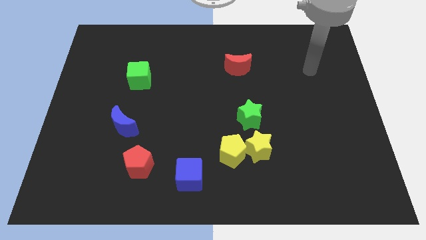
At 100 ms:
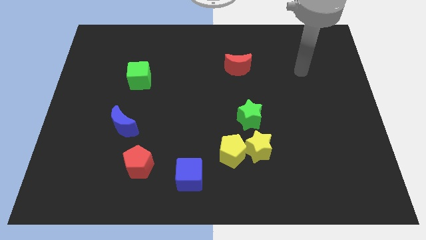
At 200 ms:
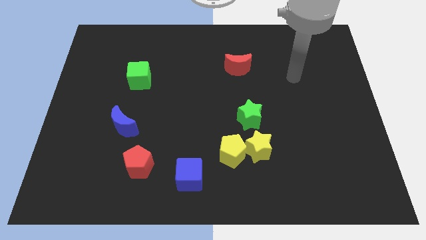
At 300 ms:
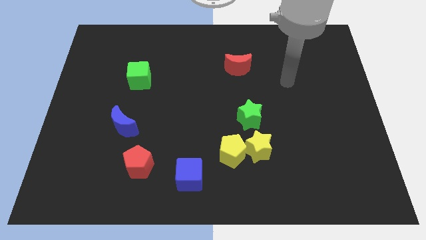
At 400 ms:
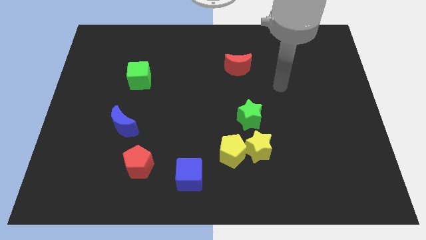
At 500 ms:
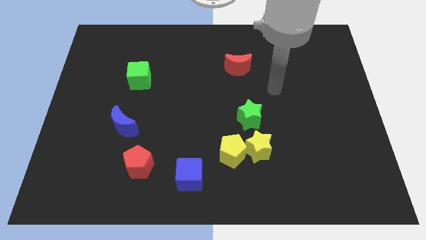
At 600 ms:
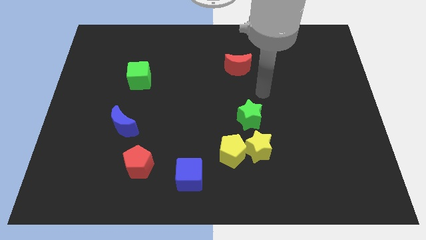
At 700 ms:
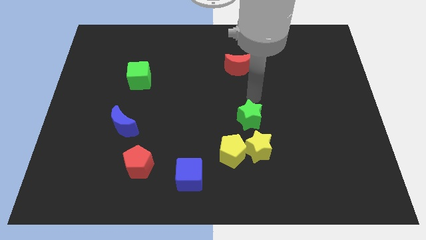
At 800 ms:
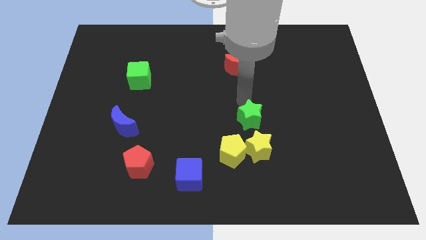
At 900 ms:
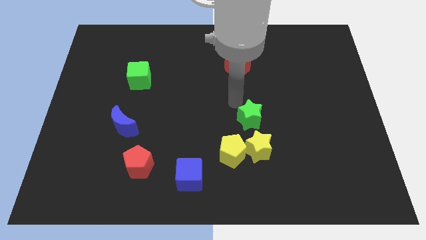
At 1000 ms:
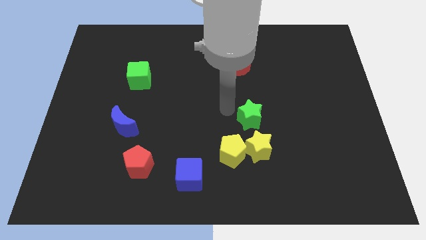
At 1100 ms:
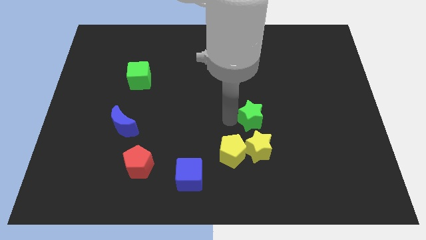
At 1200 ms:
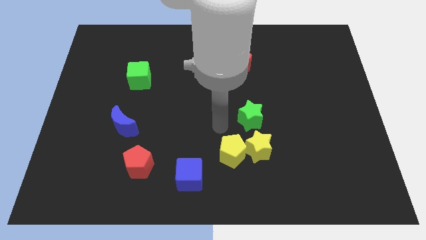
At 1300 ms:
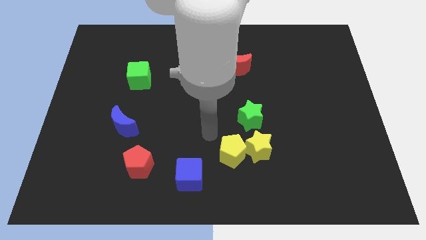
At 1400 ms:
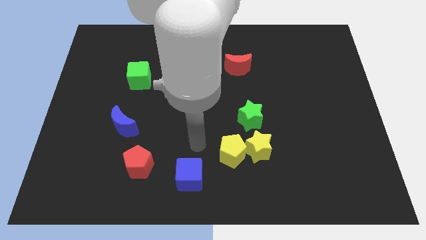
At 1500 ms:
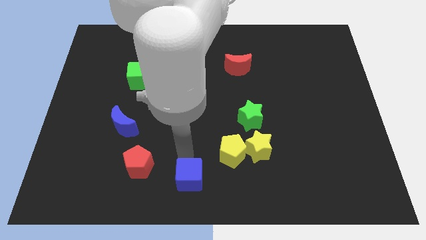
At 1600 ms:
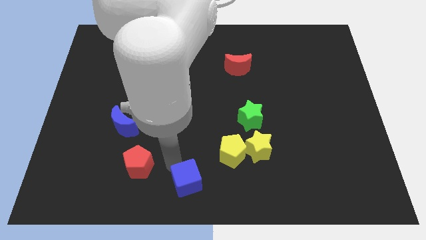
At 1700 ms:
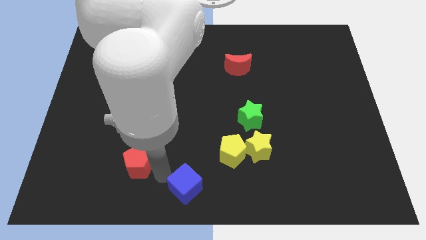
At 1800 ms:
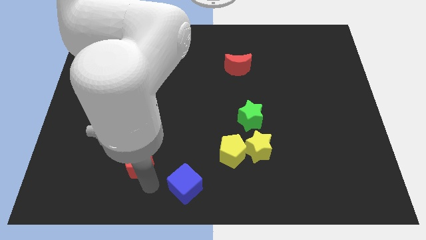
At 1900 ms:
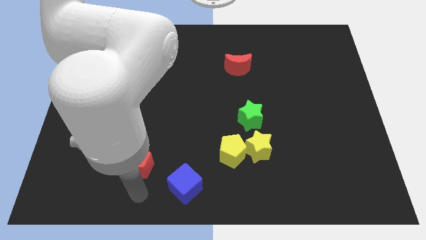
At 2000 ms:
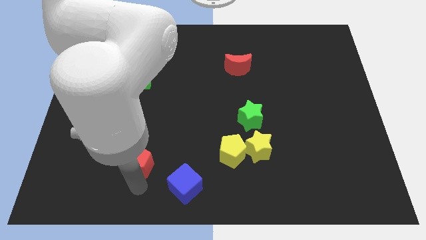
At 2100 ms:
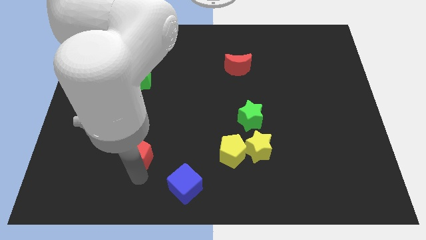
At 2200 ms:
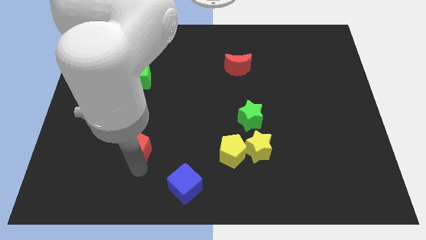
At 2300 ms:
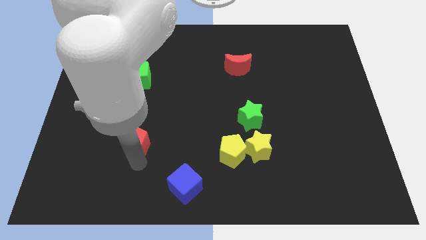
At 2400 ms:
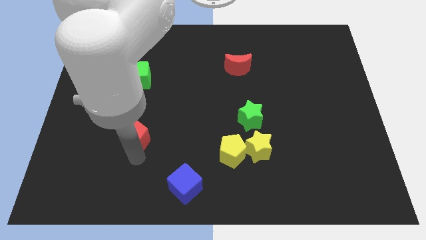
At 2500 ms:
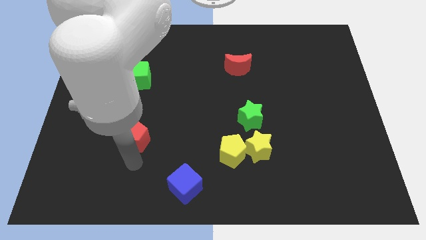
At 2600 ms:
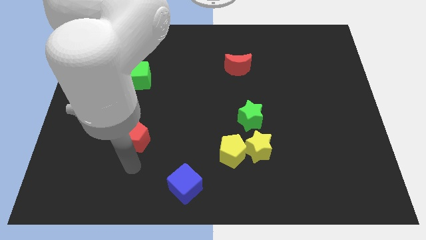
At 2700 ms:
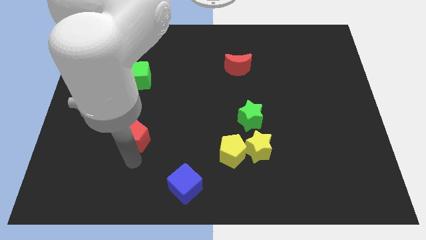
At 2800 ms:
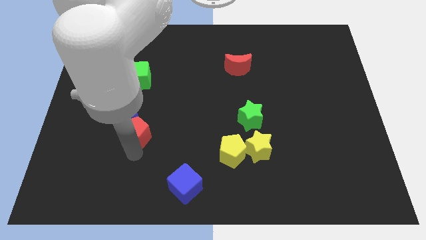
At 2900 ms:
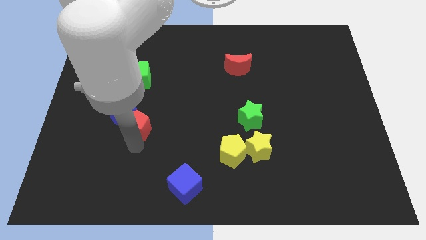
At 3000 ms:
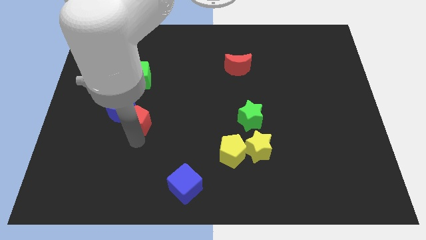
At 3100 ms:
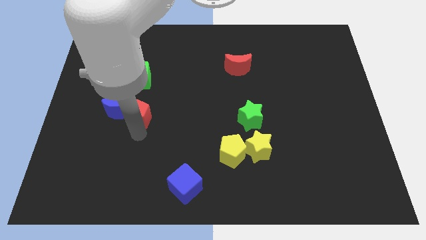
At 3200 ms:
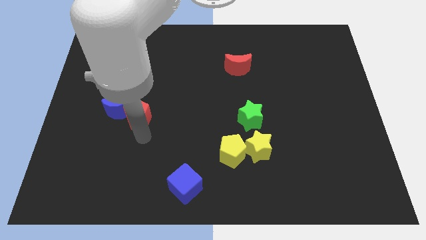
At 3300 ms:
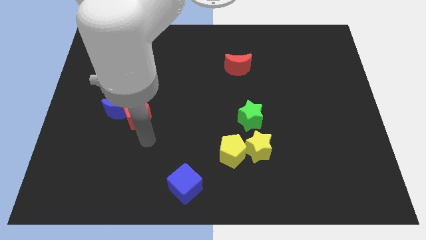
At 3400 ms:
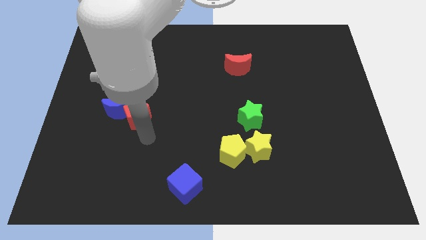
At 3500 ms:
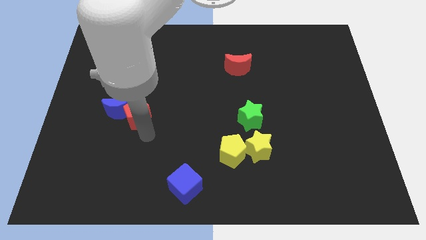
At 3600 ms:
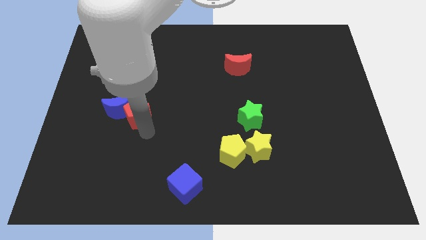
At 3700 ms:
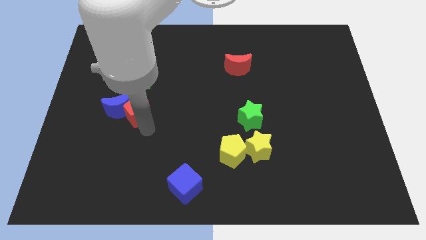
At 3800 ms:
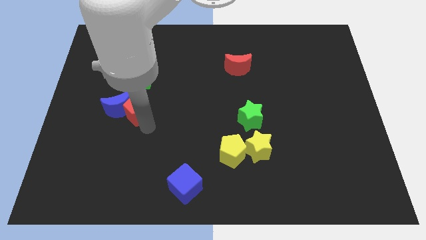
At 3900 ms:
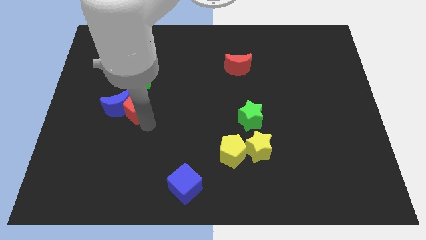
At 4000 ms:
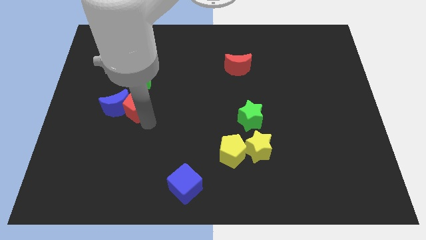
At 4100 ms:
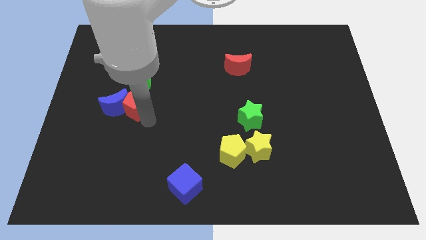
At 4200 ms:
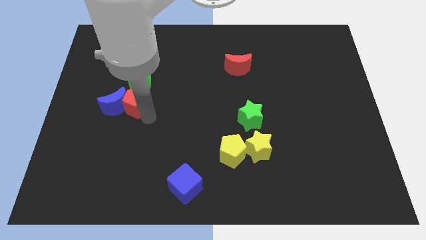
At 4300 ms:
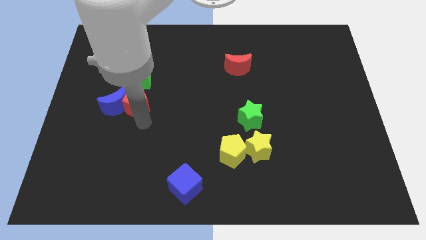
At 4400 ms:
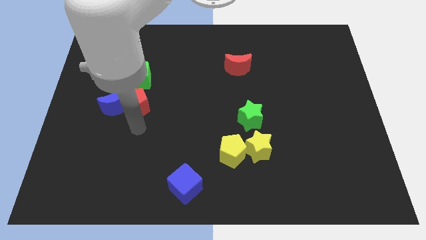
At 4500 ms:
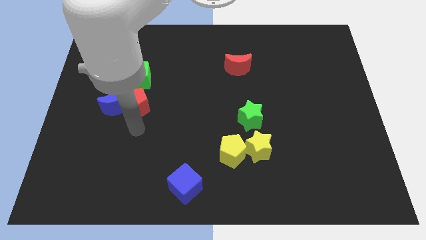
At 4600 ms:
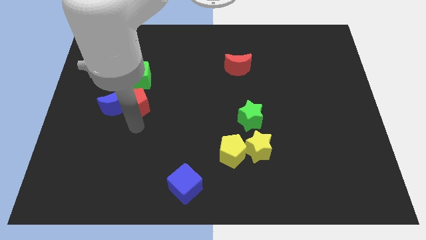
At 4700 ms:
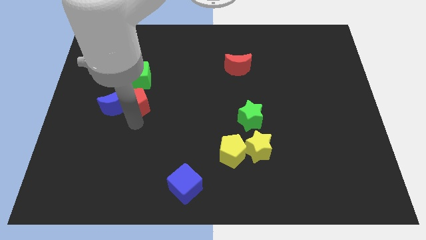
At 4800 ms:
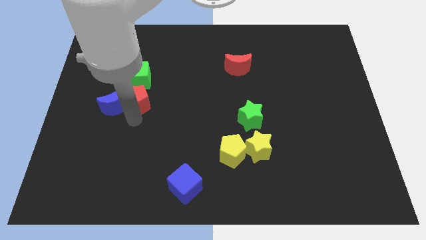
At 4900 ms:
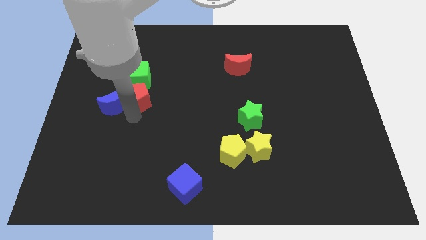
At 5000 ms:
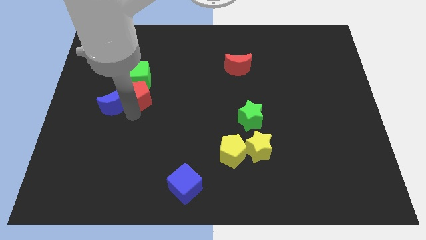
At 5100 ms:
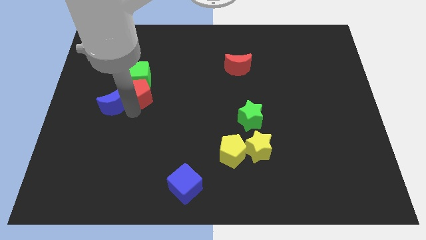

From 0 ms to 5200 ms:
slide the red pentagon to the green cube

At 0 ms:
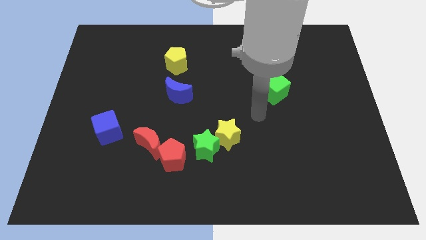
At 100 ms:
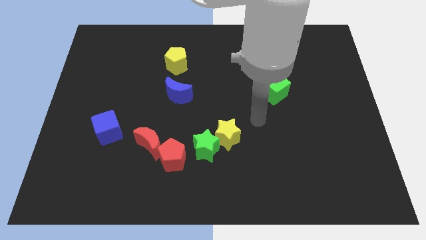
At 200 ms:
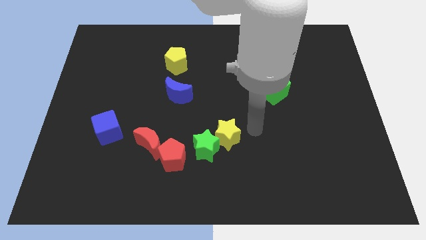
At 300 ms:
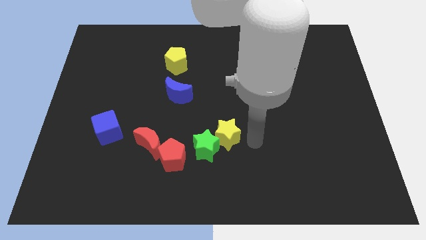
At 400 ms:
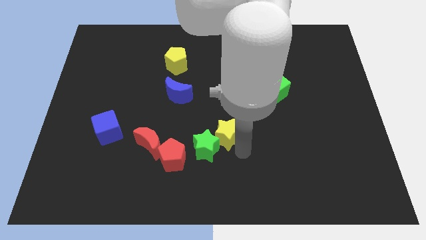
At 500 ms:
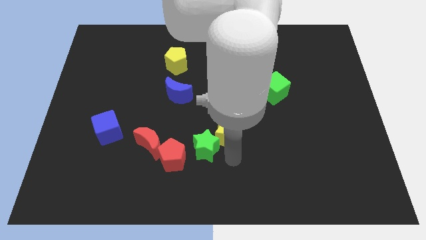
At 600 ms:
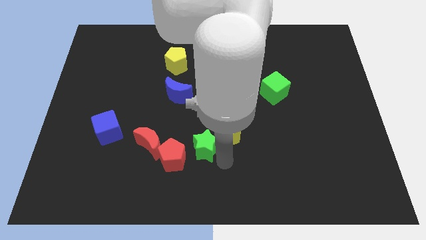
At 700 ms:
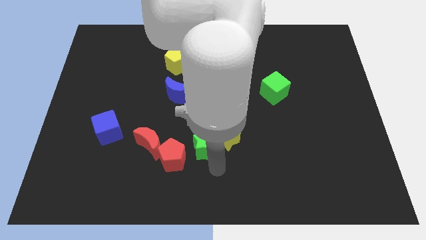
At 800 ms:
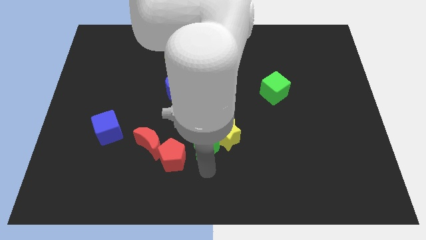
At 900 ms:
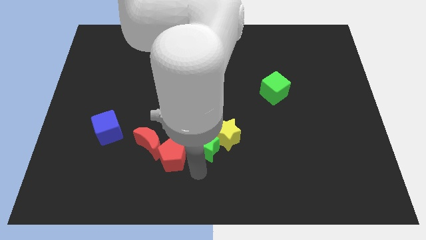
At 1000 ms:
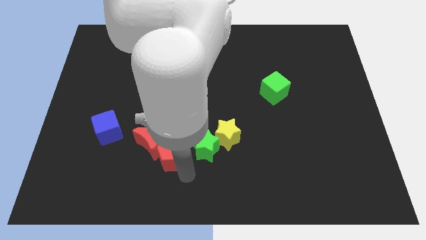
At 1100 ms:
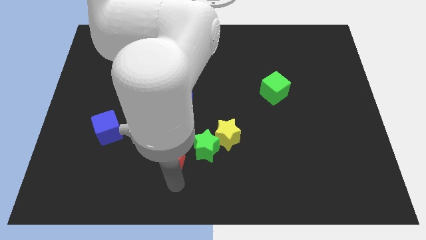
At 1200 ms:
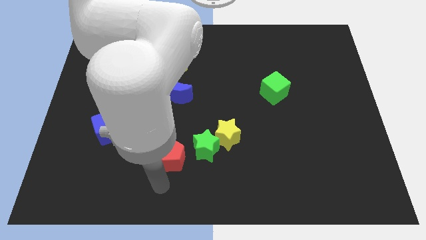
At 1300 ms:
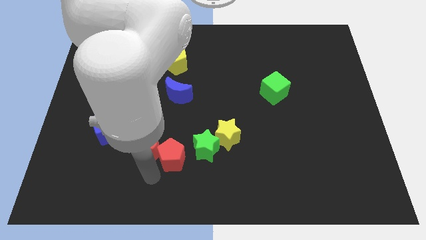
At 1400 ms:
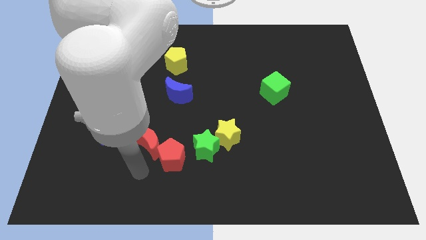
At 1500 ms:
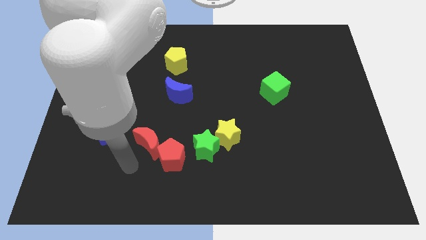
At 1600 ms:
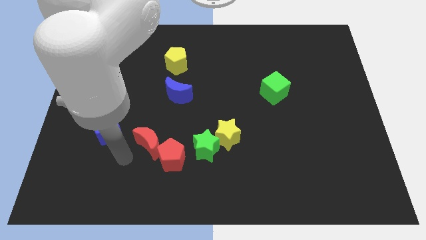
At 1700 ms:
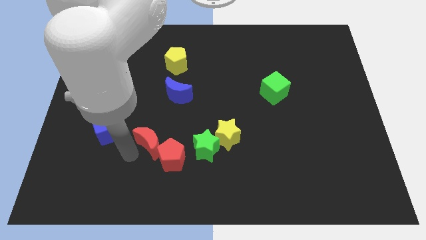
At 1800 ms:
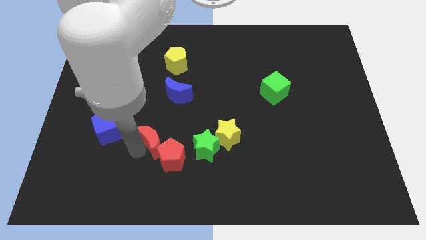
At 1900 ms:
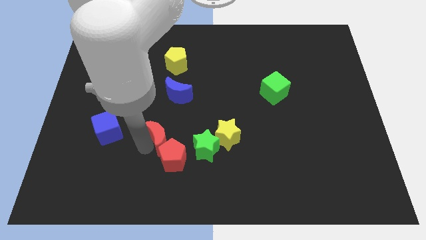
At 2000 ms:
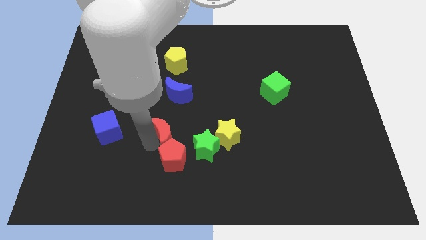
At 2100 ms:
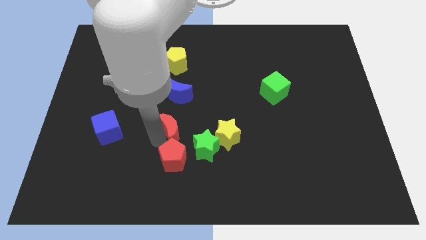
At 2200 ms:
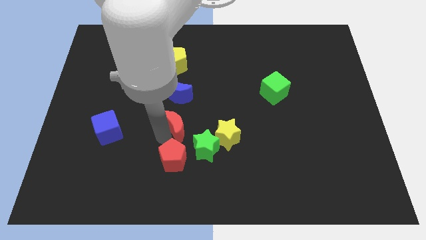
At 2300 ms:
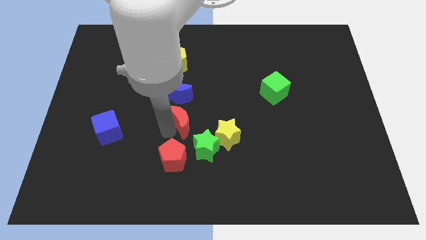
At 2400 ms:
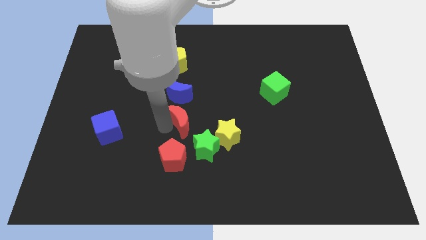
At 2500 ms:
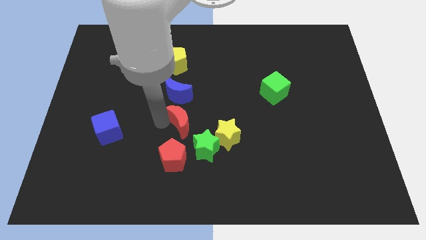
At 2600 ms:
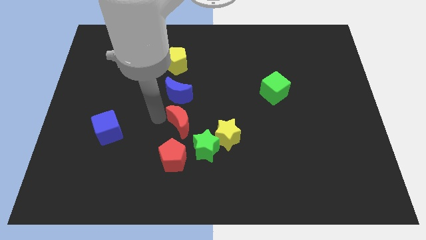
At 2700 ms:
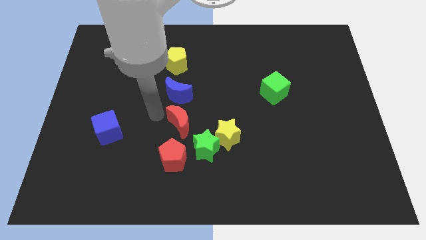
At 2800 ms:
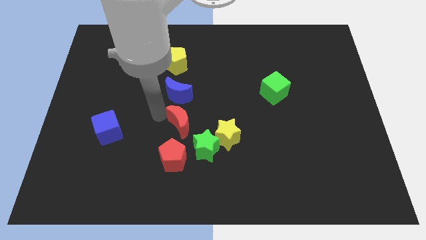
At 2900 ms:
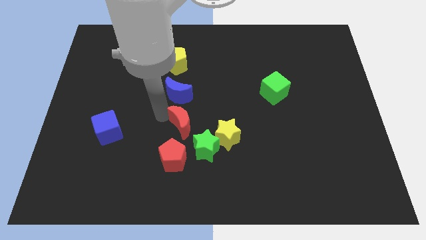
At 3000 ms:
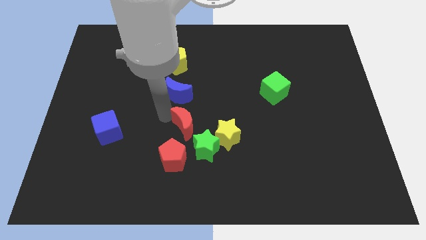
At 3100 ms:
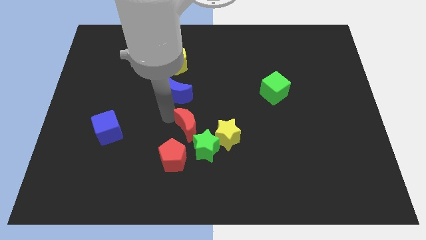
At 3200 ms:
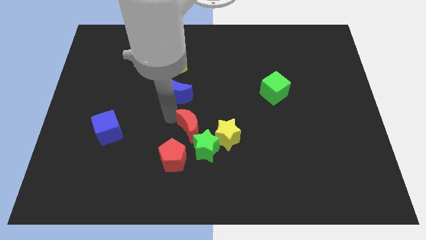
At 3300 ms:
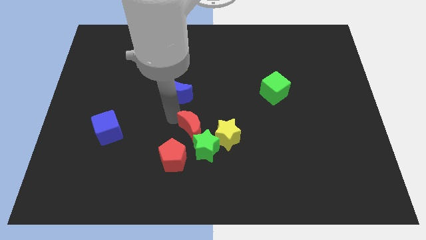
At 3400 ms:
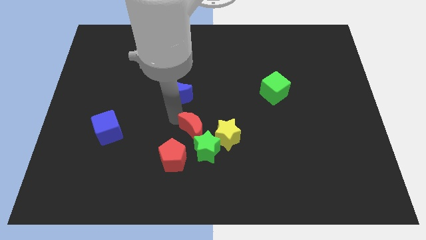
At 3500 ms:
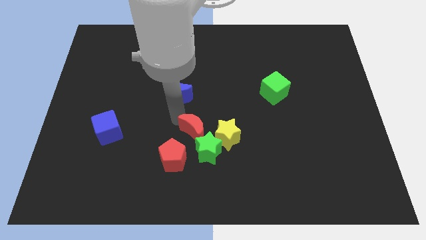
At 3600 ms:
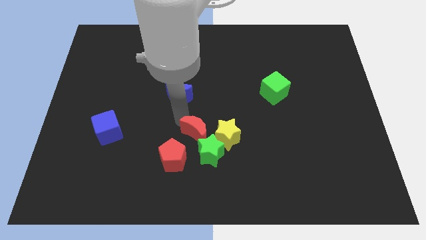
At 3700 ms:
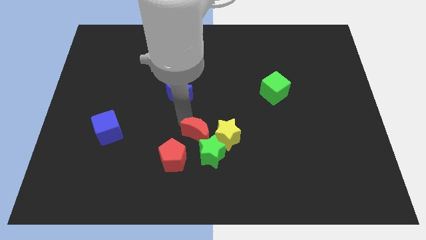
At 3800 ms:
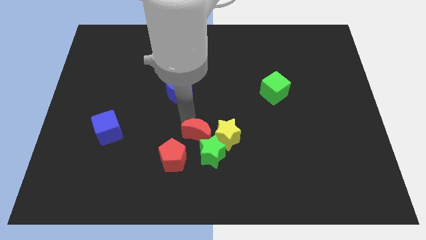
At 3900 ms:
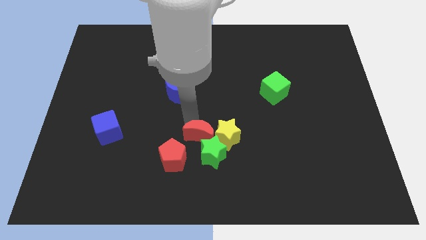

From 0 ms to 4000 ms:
push the red moon close to the yellow star
